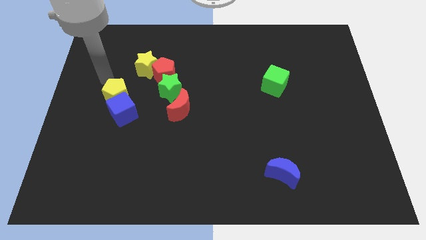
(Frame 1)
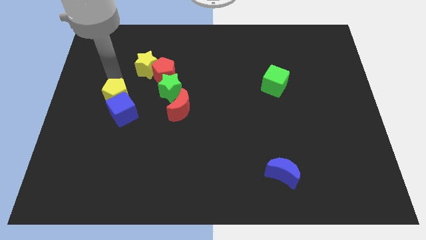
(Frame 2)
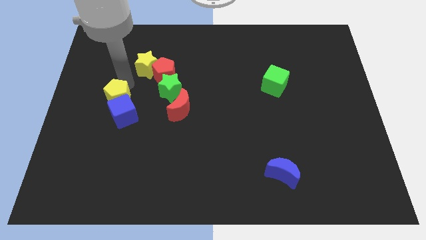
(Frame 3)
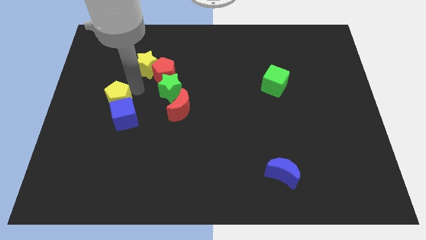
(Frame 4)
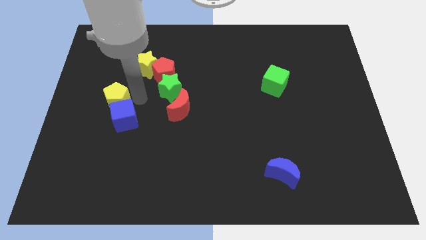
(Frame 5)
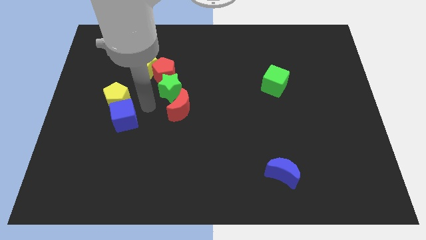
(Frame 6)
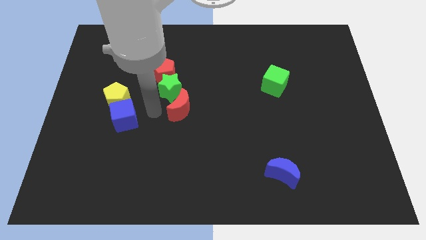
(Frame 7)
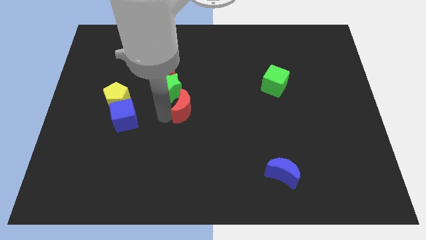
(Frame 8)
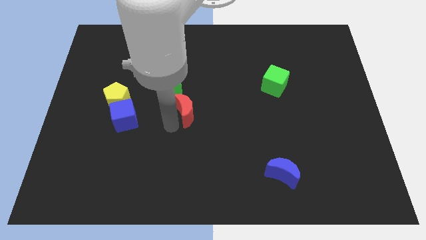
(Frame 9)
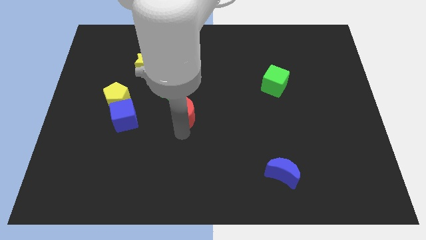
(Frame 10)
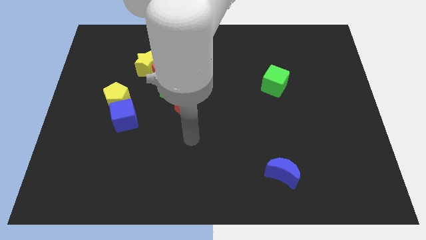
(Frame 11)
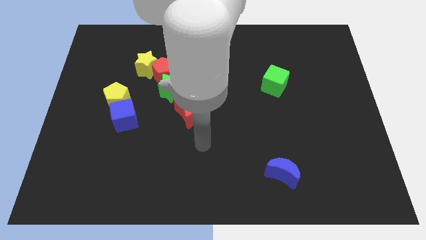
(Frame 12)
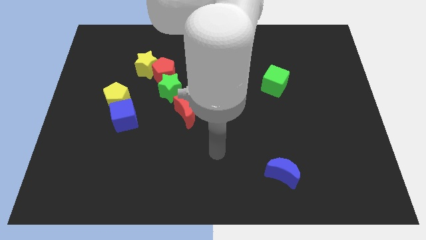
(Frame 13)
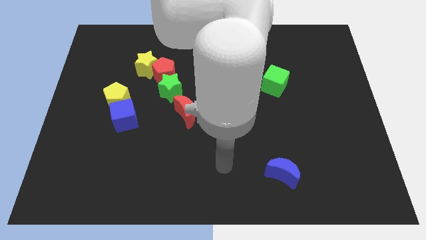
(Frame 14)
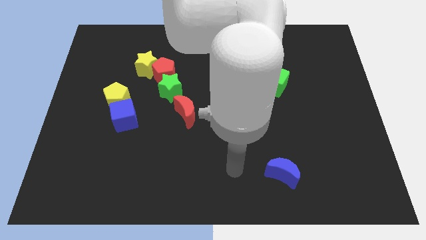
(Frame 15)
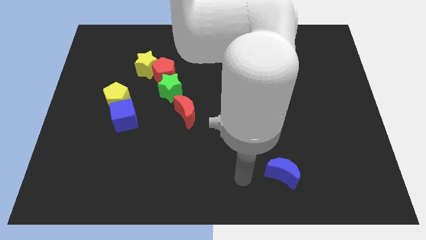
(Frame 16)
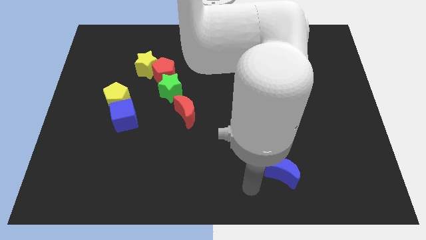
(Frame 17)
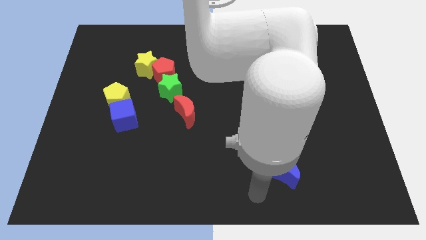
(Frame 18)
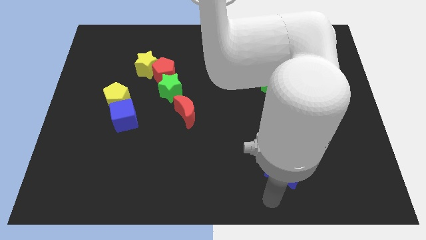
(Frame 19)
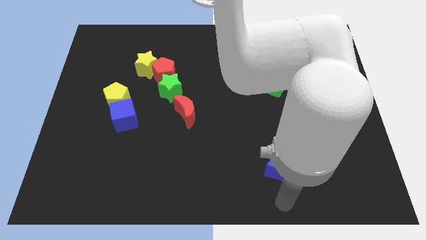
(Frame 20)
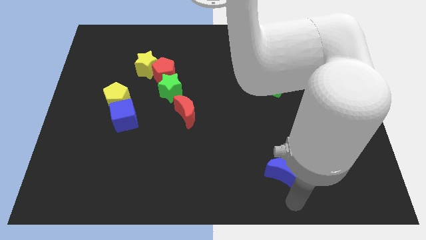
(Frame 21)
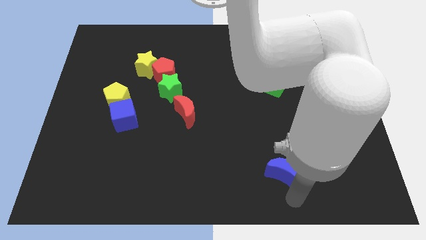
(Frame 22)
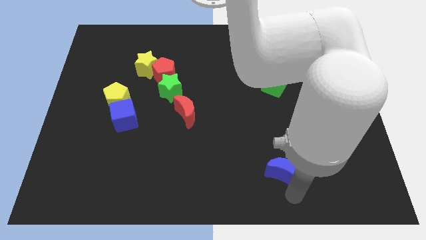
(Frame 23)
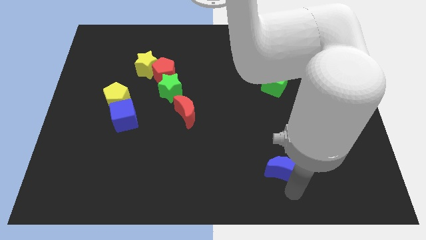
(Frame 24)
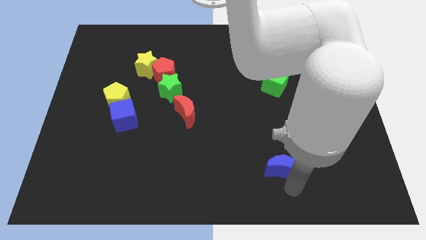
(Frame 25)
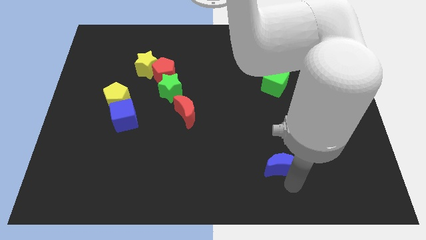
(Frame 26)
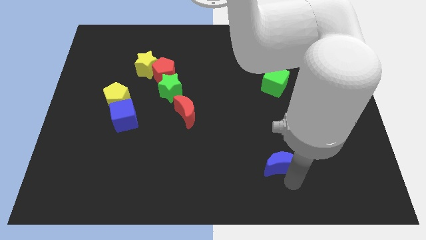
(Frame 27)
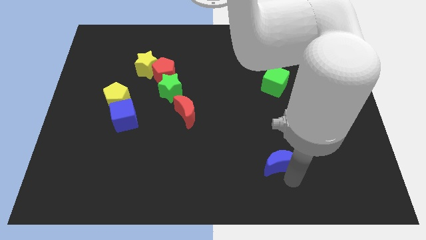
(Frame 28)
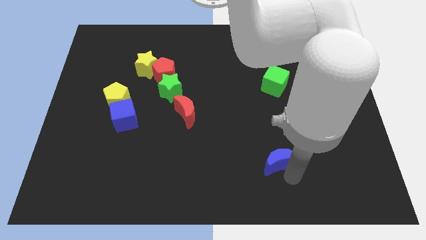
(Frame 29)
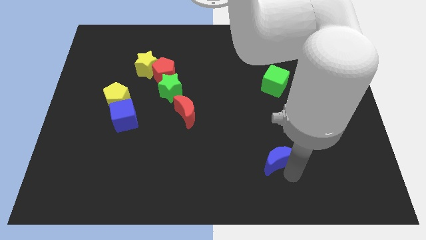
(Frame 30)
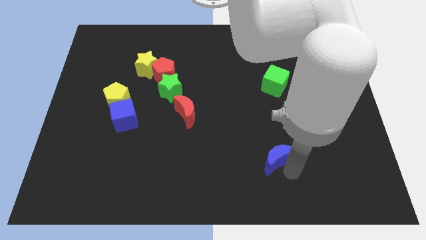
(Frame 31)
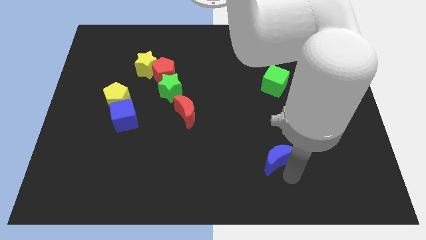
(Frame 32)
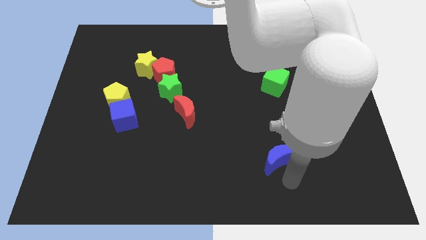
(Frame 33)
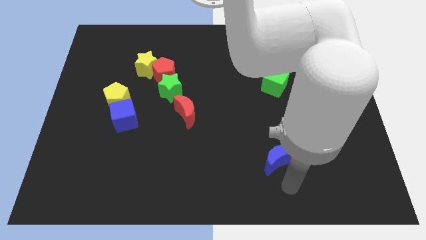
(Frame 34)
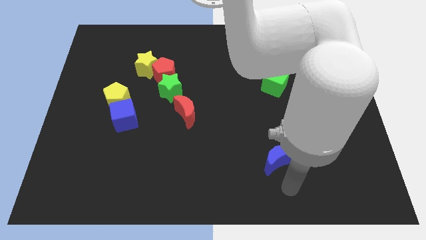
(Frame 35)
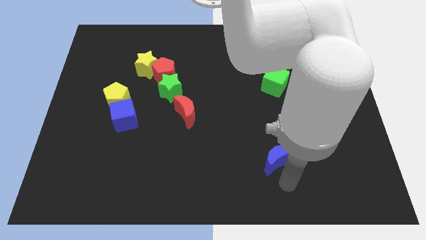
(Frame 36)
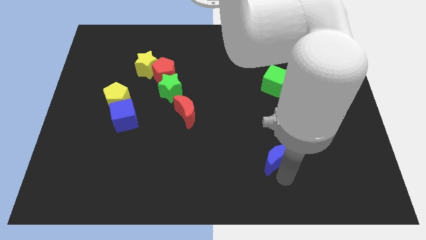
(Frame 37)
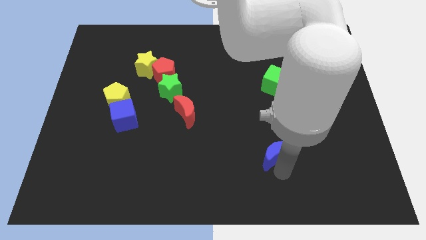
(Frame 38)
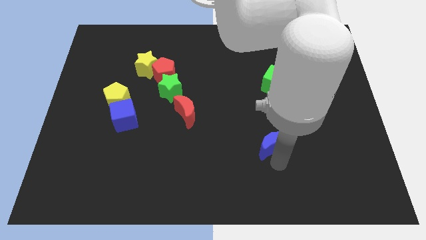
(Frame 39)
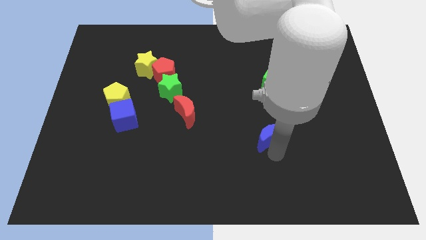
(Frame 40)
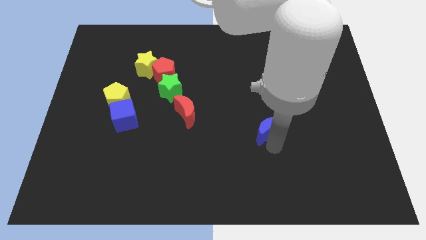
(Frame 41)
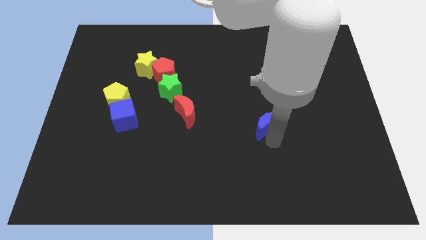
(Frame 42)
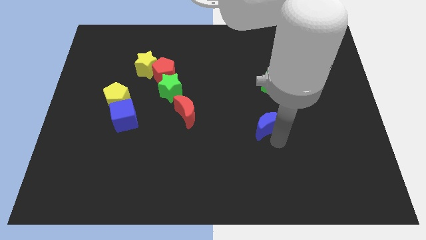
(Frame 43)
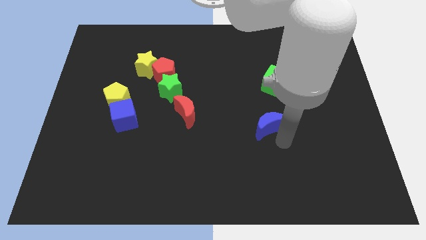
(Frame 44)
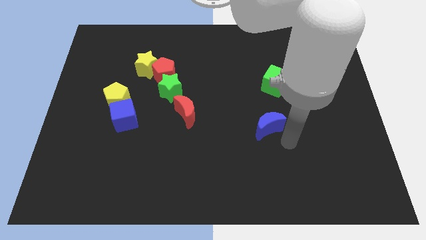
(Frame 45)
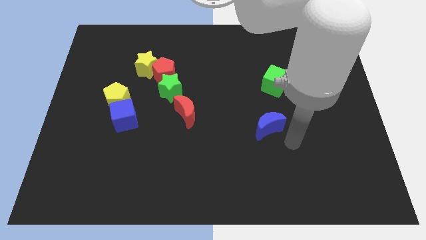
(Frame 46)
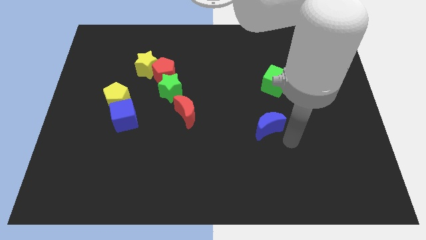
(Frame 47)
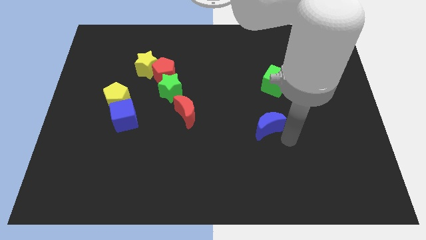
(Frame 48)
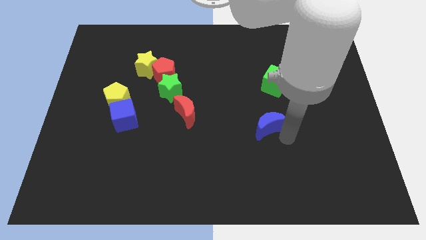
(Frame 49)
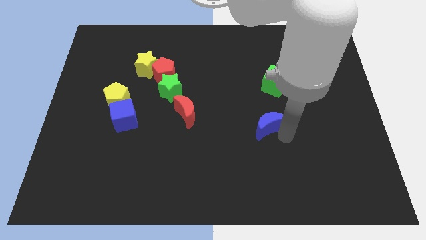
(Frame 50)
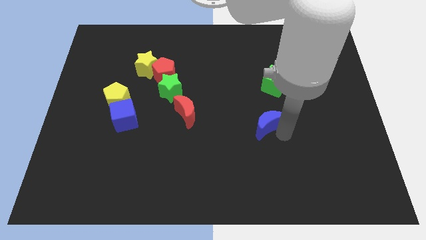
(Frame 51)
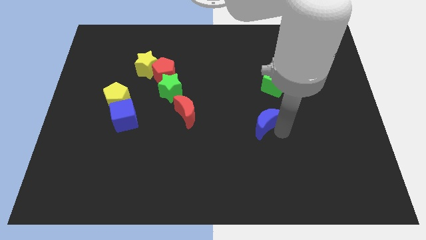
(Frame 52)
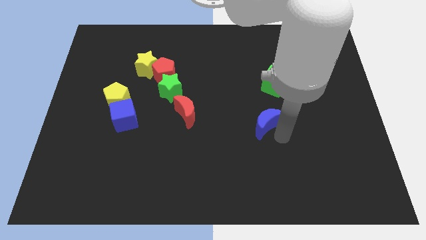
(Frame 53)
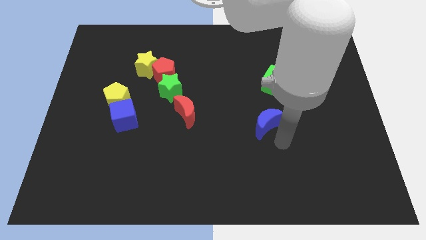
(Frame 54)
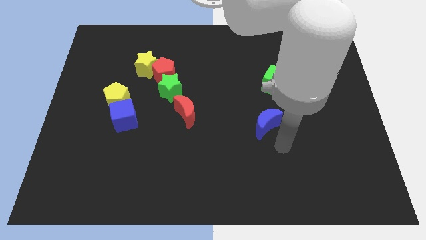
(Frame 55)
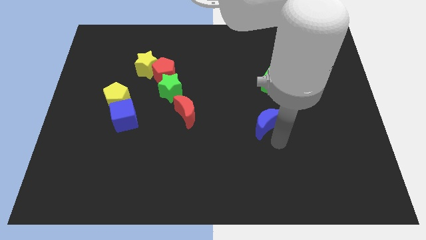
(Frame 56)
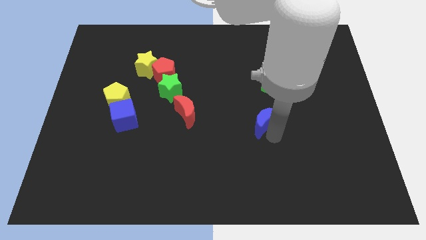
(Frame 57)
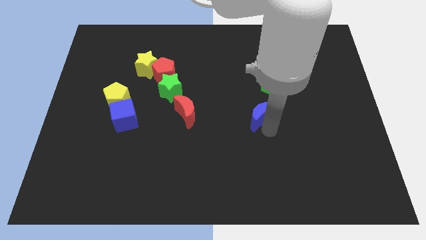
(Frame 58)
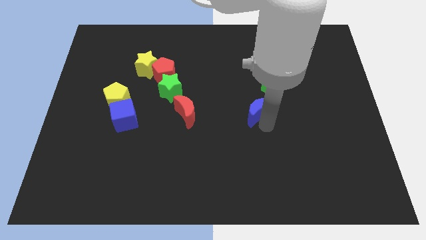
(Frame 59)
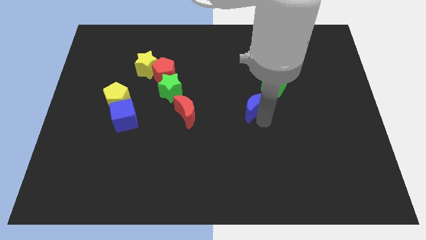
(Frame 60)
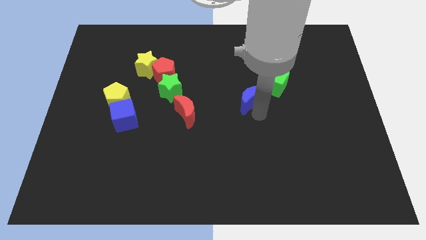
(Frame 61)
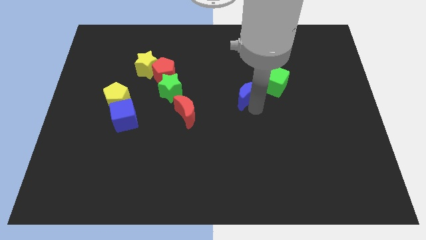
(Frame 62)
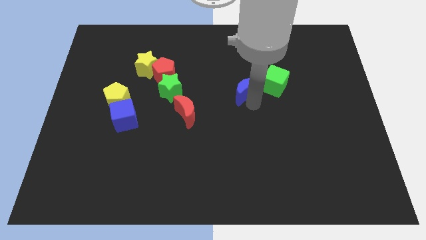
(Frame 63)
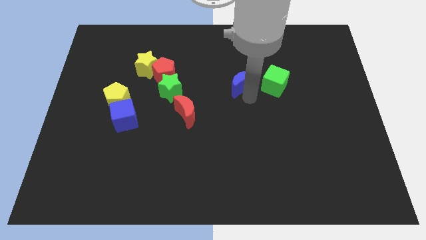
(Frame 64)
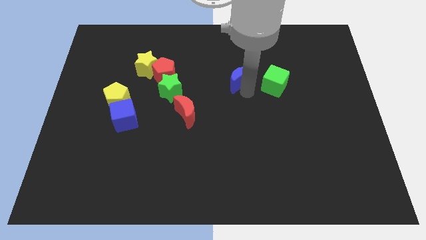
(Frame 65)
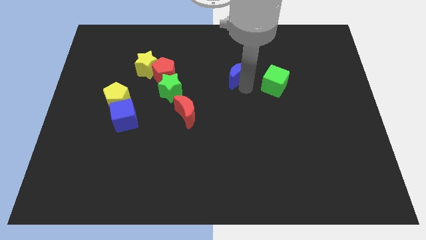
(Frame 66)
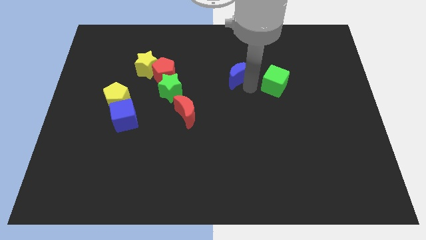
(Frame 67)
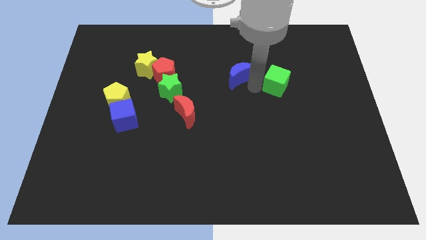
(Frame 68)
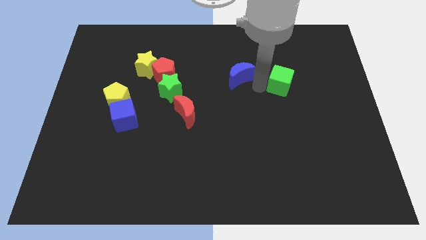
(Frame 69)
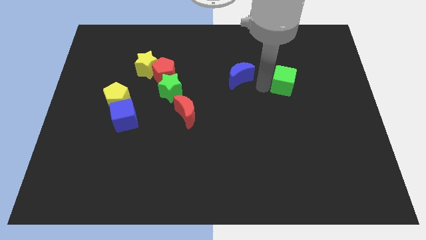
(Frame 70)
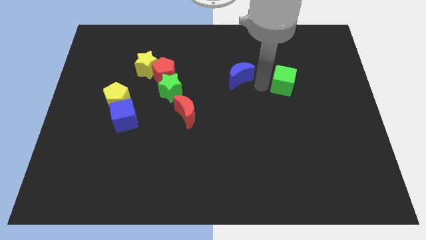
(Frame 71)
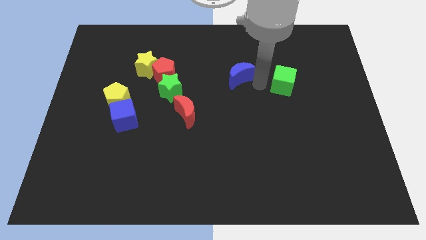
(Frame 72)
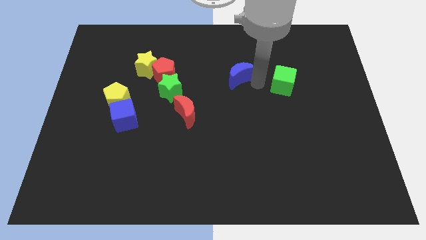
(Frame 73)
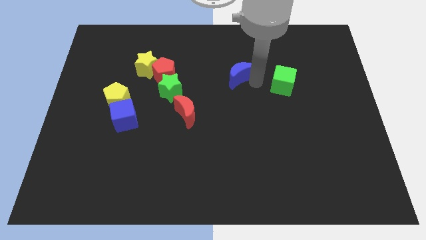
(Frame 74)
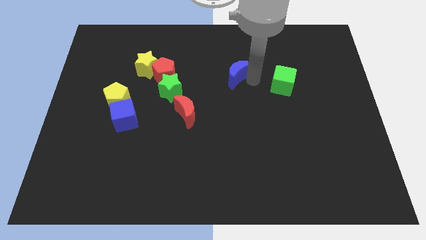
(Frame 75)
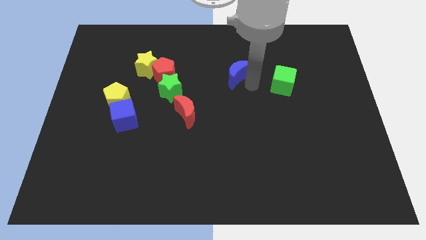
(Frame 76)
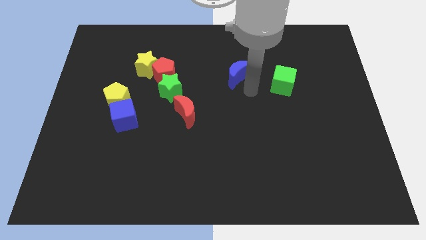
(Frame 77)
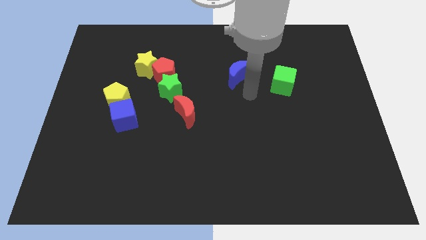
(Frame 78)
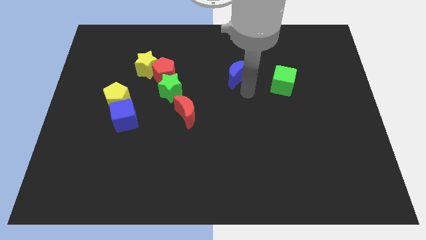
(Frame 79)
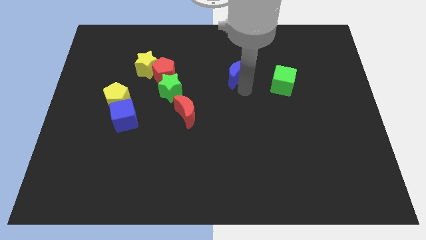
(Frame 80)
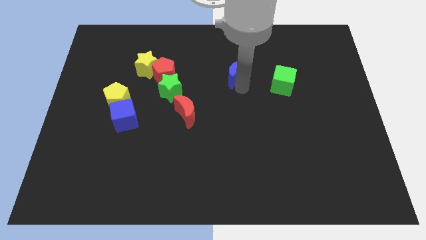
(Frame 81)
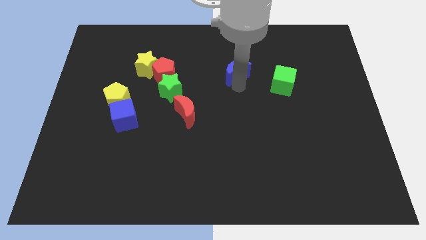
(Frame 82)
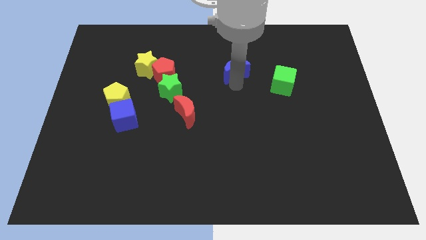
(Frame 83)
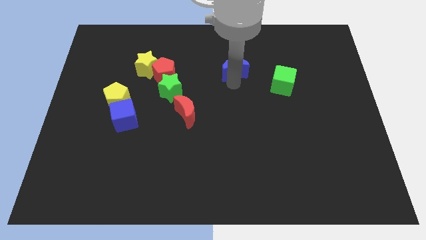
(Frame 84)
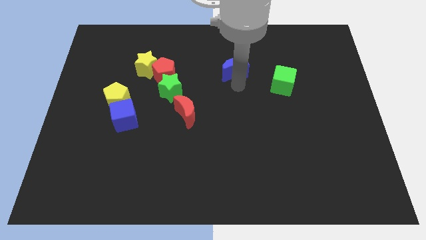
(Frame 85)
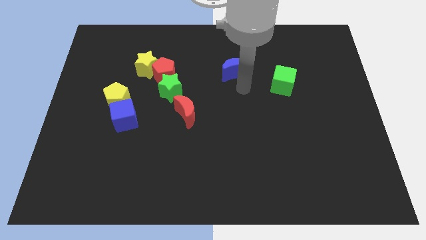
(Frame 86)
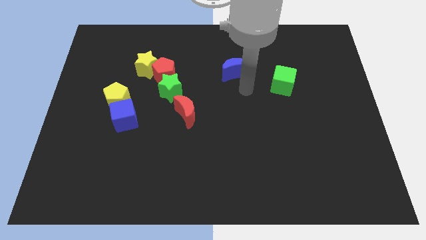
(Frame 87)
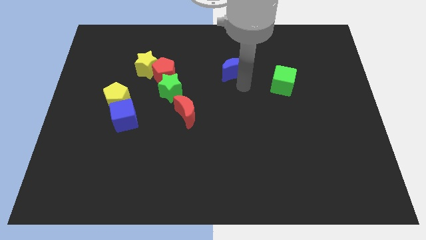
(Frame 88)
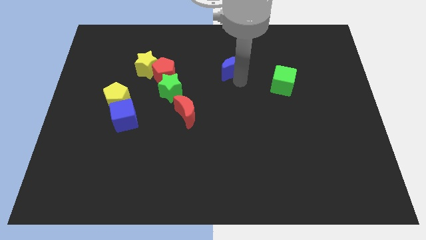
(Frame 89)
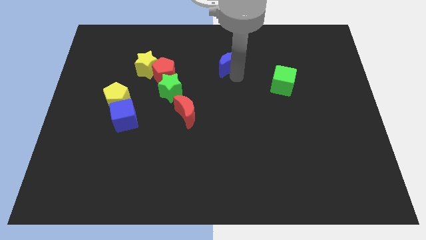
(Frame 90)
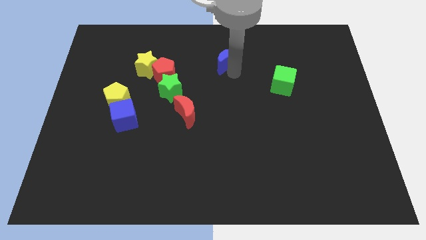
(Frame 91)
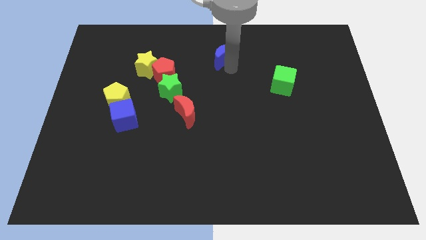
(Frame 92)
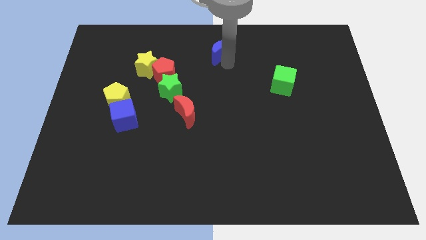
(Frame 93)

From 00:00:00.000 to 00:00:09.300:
move the blue moon to the top
